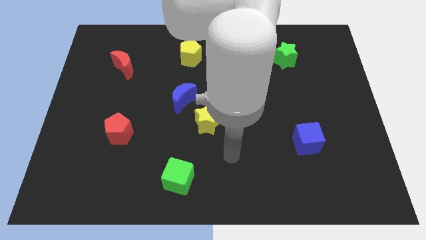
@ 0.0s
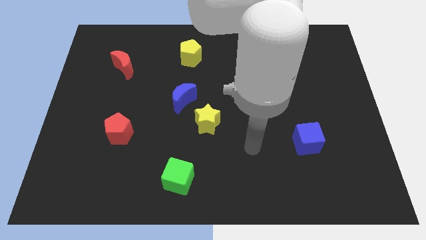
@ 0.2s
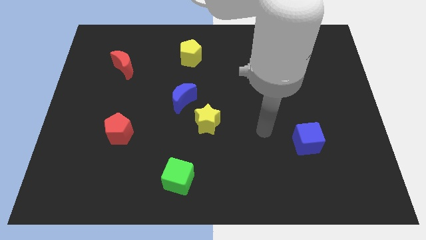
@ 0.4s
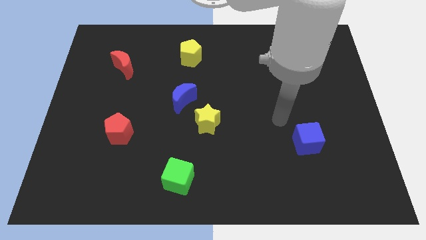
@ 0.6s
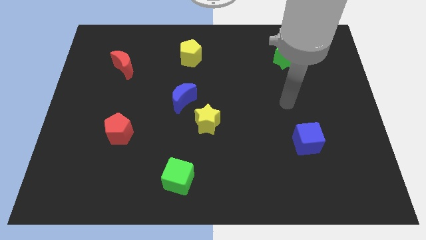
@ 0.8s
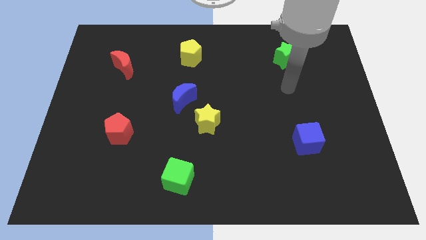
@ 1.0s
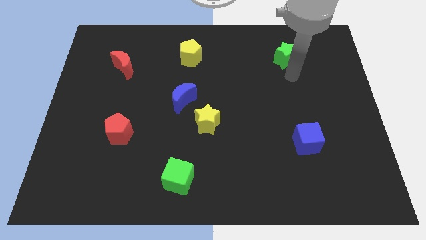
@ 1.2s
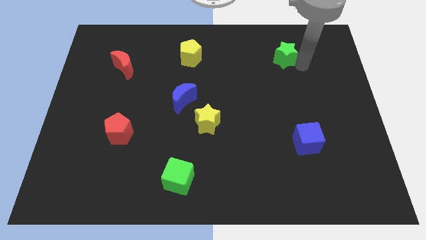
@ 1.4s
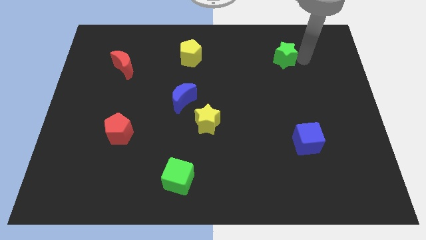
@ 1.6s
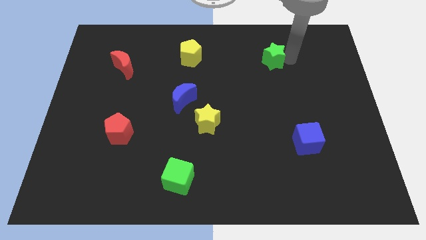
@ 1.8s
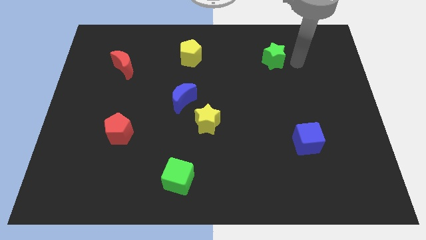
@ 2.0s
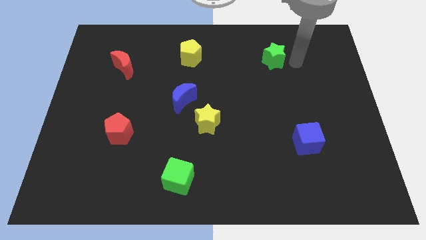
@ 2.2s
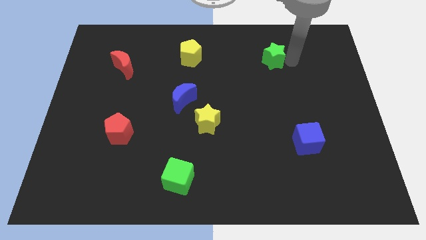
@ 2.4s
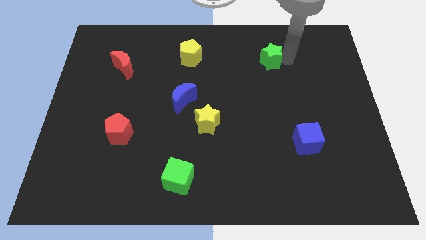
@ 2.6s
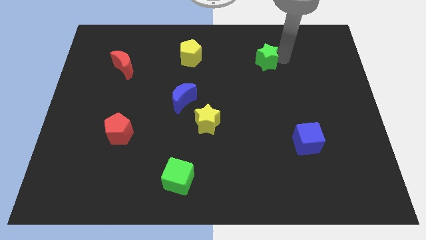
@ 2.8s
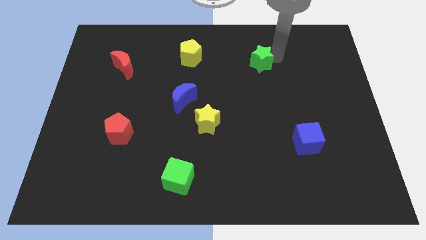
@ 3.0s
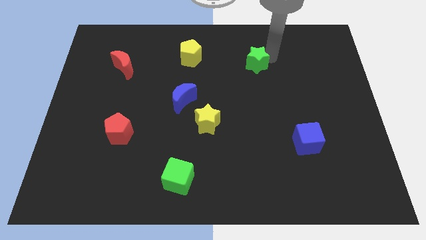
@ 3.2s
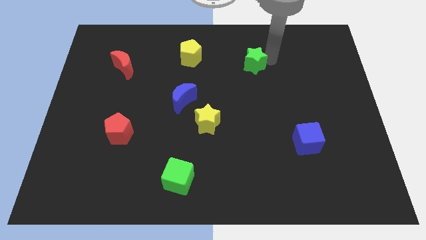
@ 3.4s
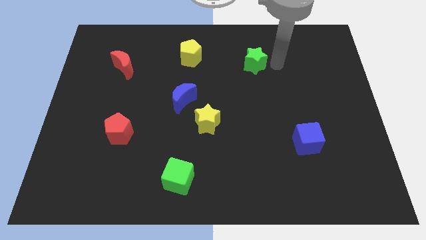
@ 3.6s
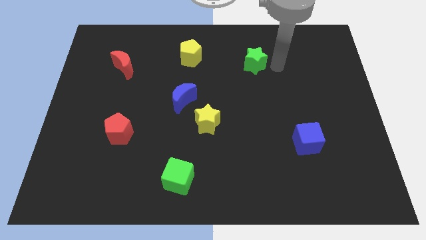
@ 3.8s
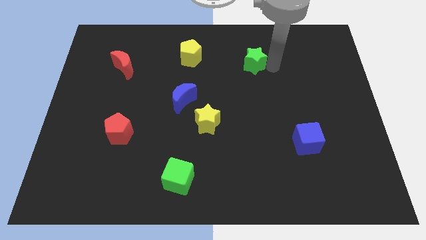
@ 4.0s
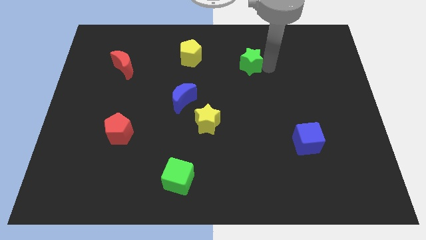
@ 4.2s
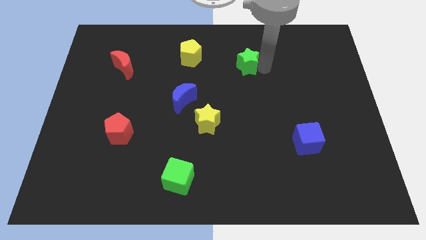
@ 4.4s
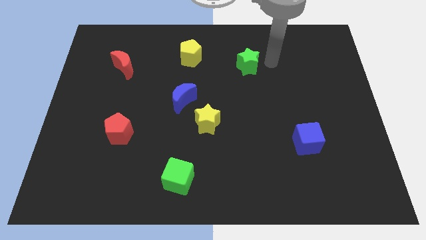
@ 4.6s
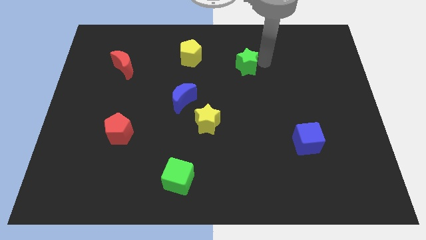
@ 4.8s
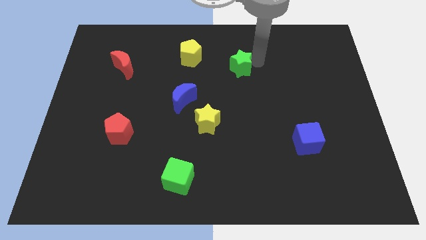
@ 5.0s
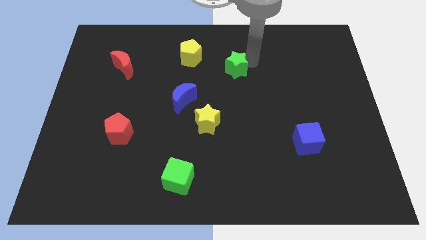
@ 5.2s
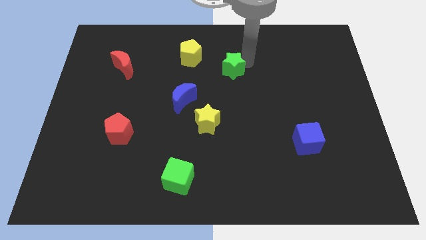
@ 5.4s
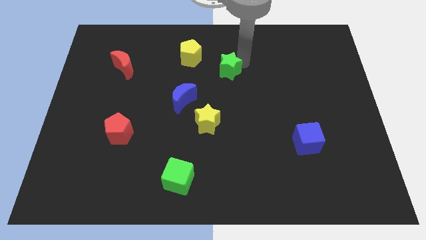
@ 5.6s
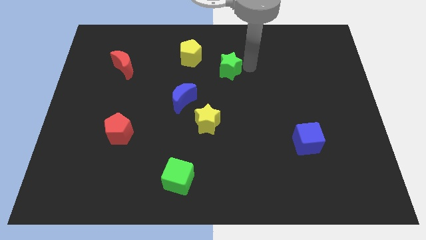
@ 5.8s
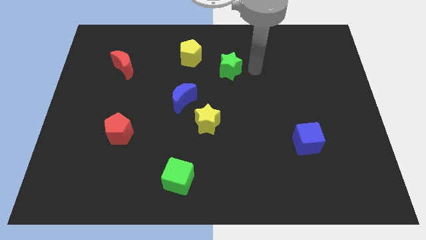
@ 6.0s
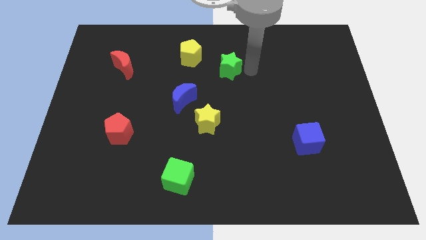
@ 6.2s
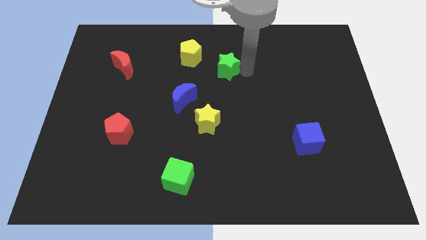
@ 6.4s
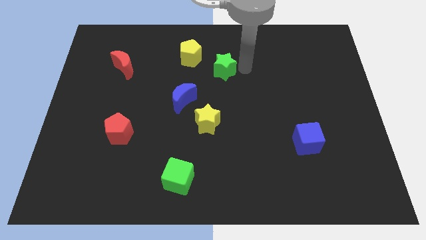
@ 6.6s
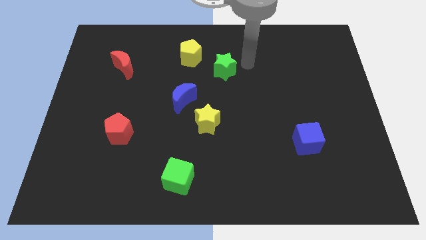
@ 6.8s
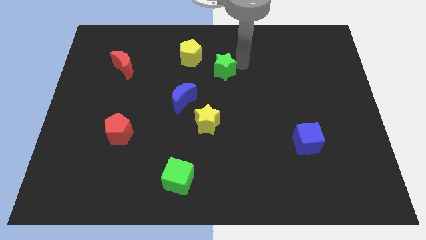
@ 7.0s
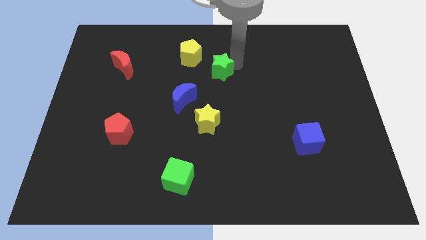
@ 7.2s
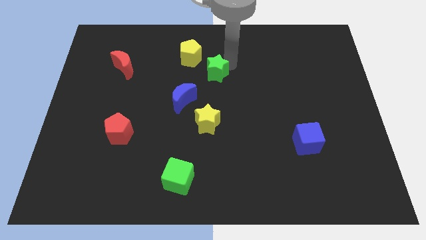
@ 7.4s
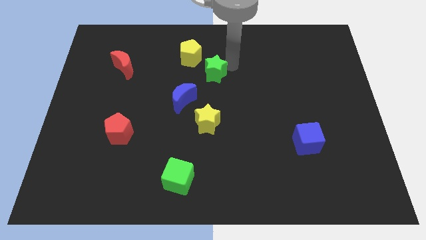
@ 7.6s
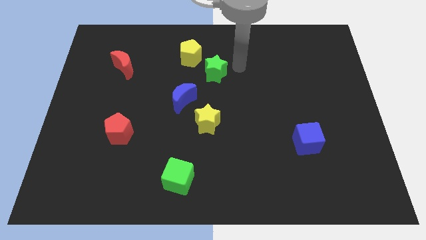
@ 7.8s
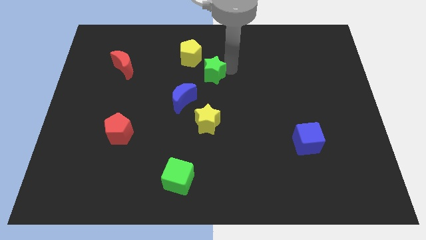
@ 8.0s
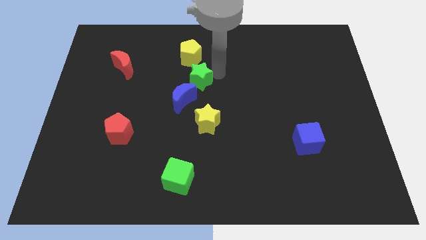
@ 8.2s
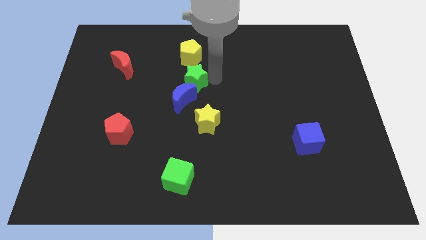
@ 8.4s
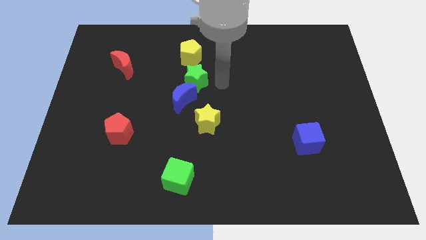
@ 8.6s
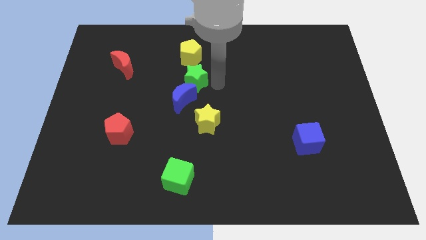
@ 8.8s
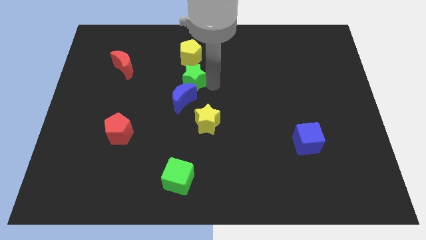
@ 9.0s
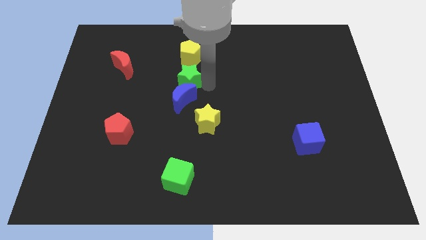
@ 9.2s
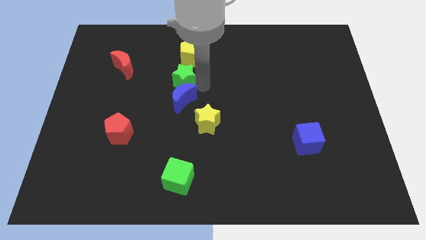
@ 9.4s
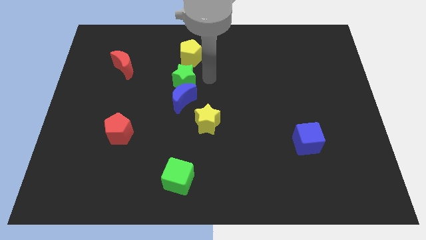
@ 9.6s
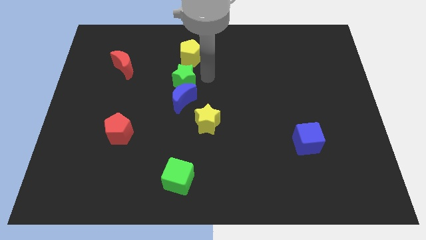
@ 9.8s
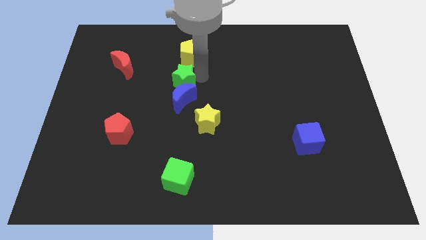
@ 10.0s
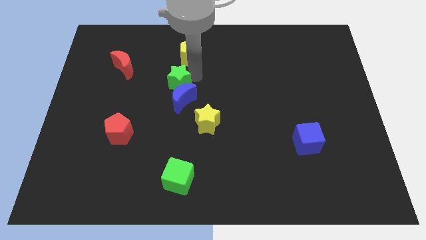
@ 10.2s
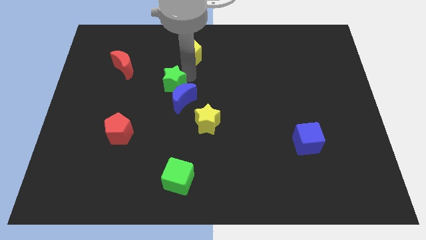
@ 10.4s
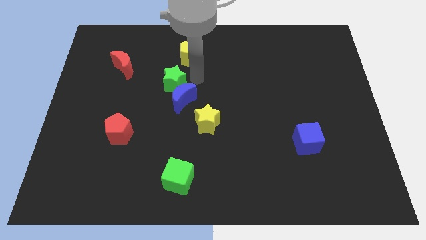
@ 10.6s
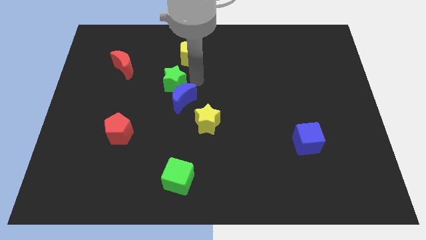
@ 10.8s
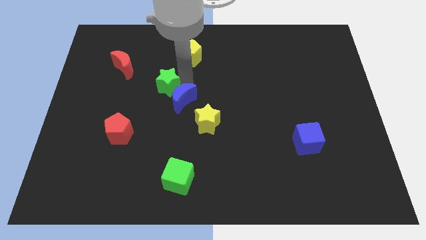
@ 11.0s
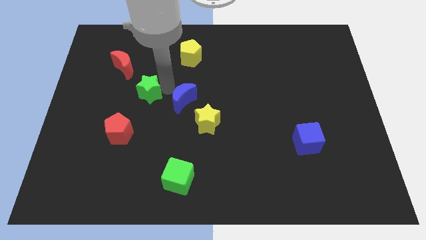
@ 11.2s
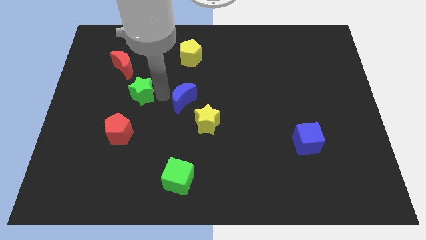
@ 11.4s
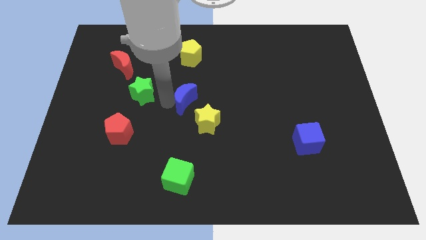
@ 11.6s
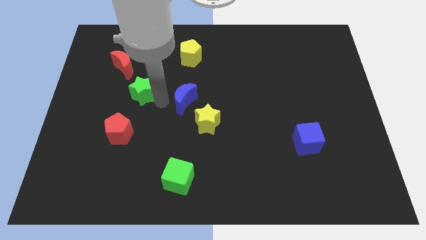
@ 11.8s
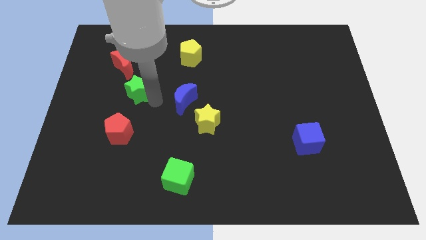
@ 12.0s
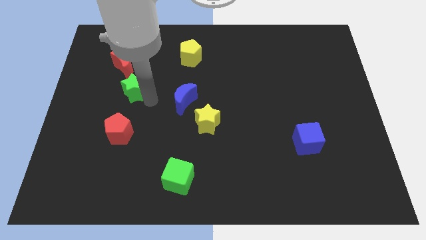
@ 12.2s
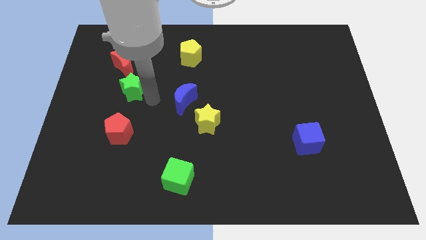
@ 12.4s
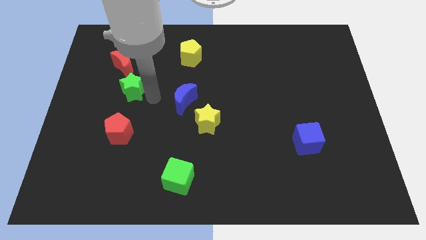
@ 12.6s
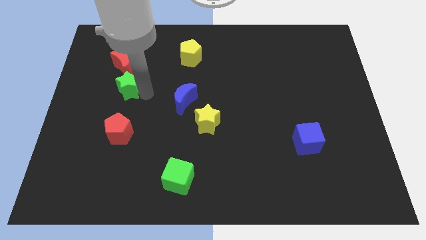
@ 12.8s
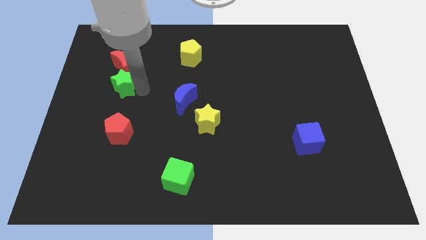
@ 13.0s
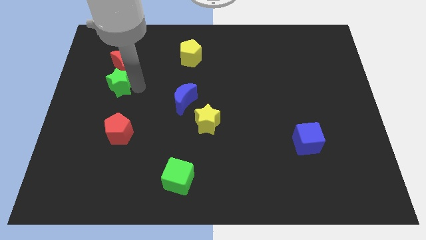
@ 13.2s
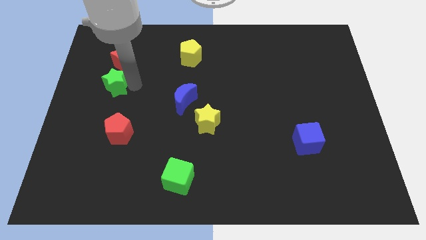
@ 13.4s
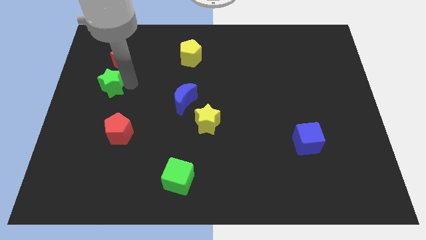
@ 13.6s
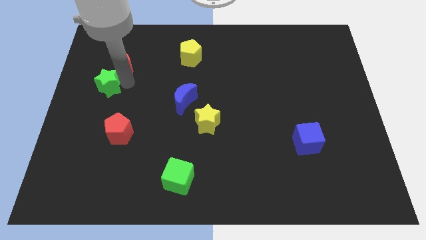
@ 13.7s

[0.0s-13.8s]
slide the green star to the left side of the board
